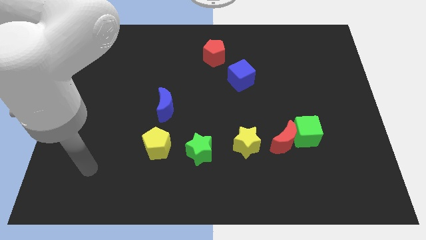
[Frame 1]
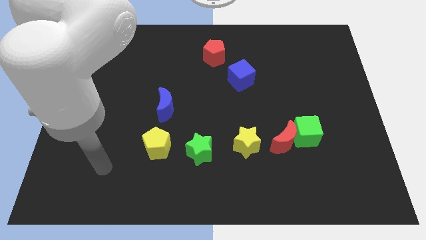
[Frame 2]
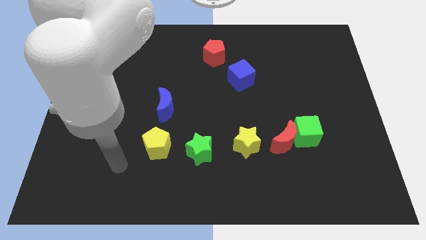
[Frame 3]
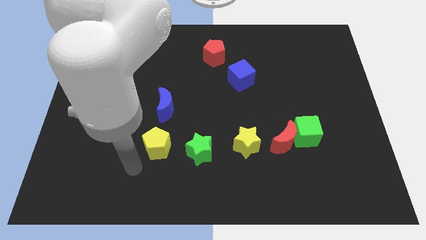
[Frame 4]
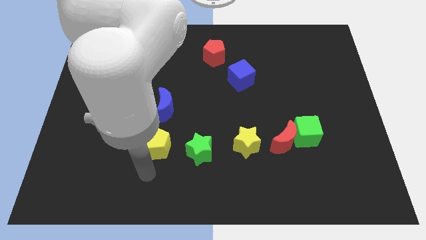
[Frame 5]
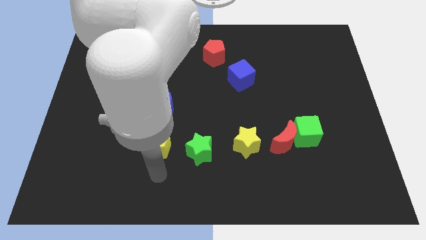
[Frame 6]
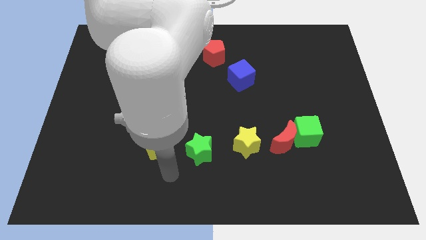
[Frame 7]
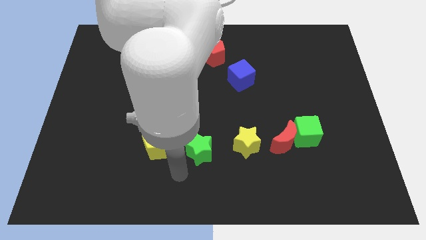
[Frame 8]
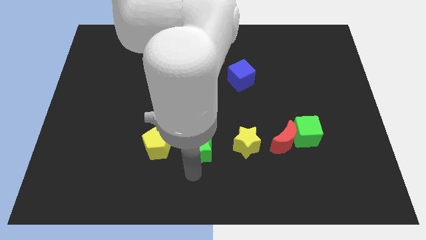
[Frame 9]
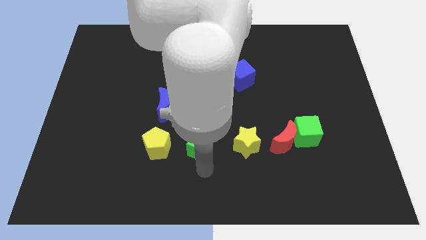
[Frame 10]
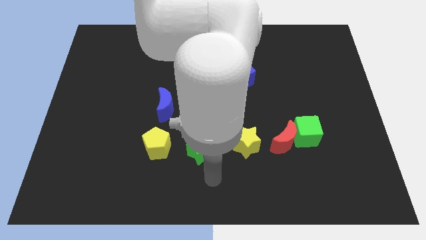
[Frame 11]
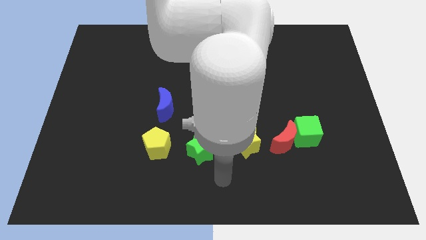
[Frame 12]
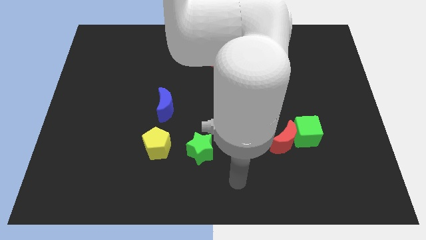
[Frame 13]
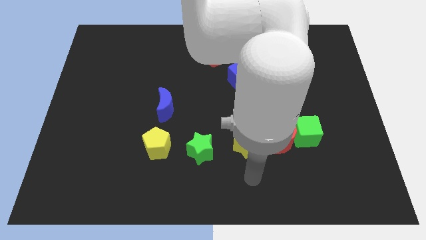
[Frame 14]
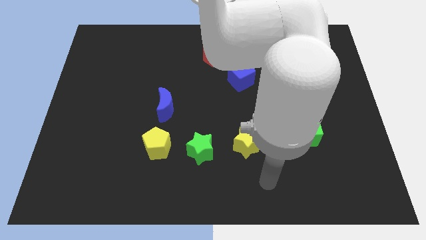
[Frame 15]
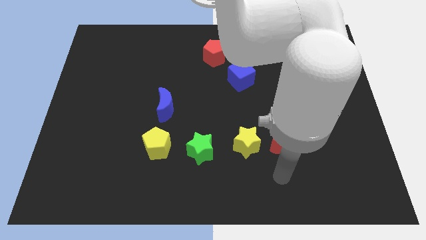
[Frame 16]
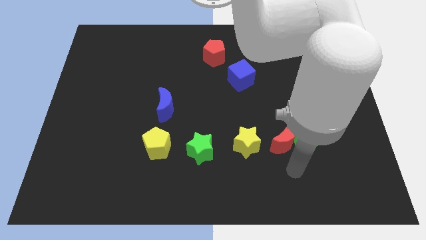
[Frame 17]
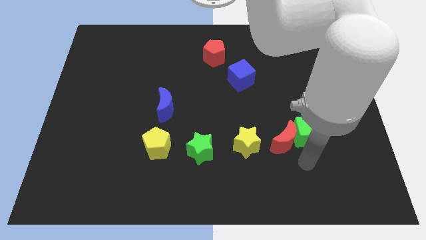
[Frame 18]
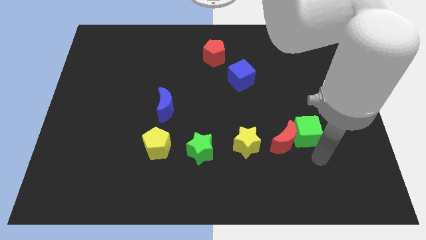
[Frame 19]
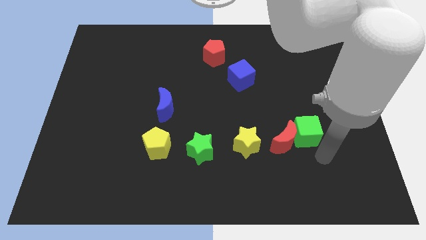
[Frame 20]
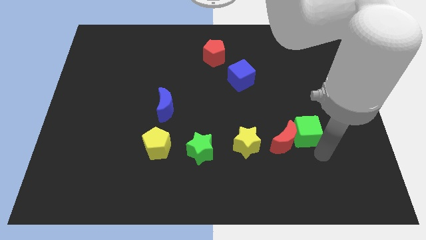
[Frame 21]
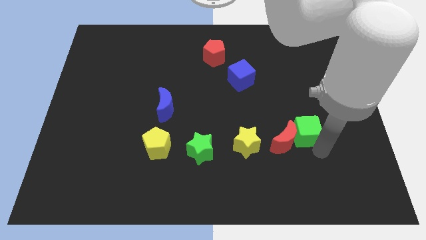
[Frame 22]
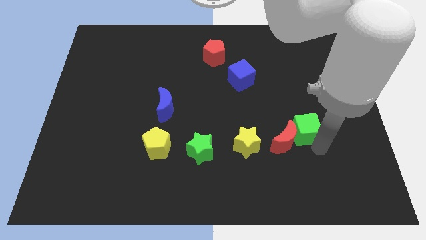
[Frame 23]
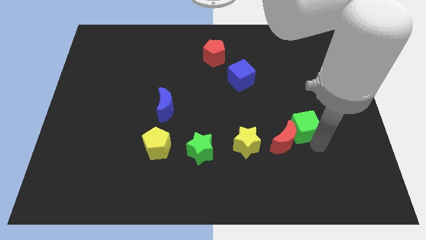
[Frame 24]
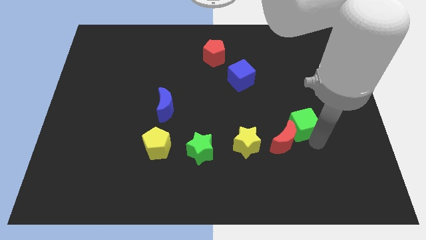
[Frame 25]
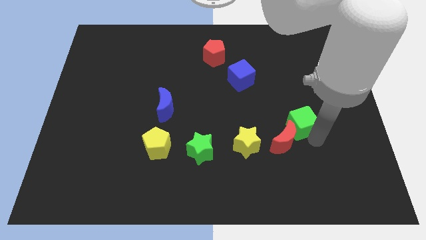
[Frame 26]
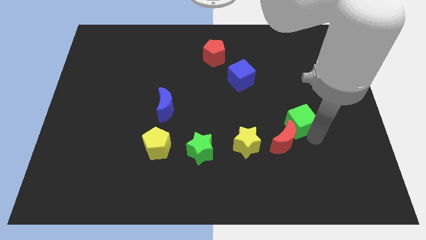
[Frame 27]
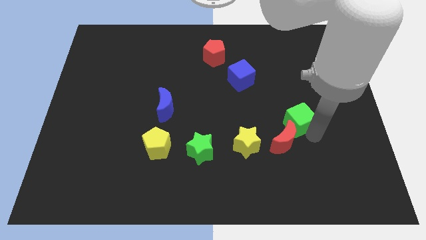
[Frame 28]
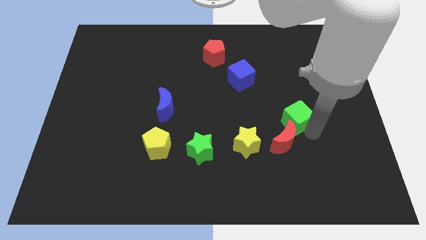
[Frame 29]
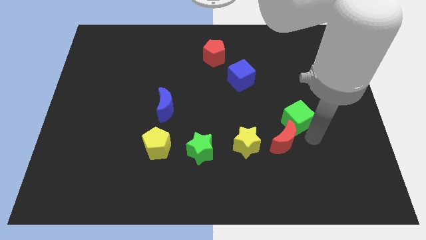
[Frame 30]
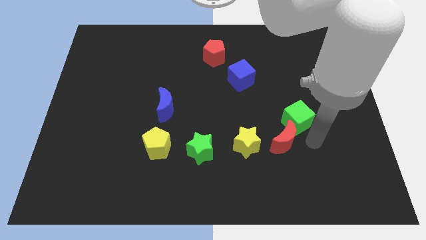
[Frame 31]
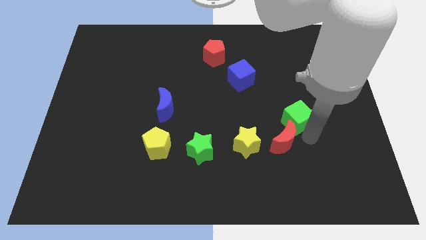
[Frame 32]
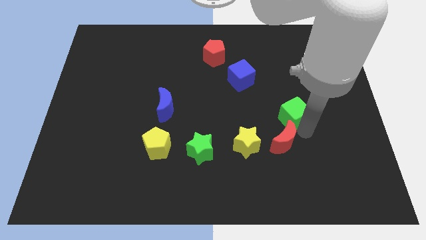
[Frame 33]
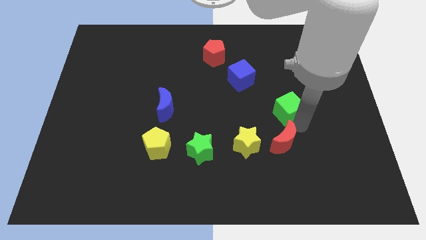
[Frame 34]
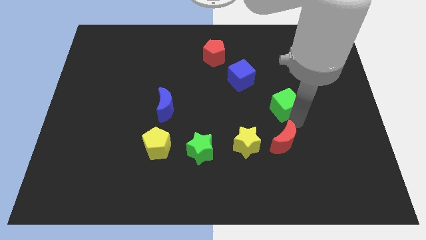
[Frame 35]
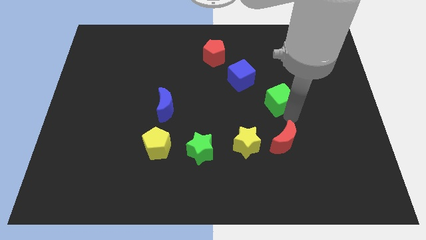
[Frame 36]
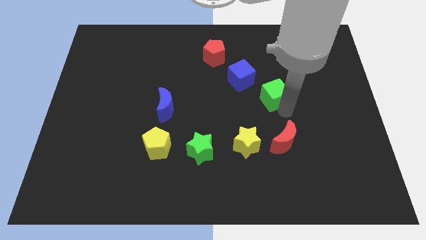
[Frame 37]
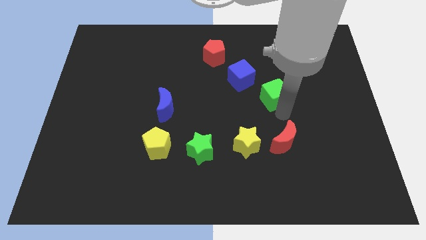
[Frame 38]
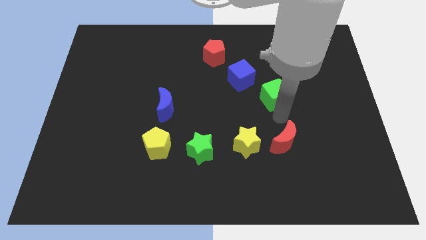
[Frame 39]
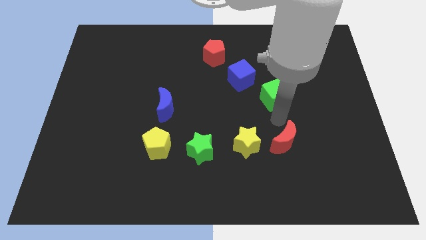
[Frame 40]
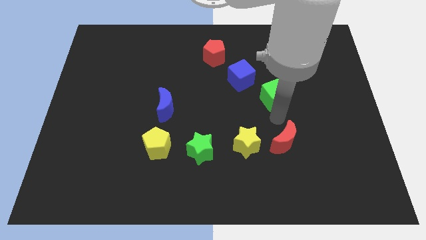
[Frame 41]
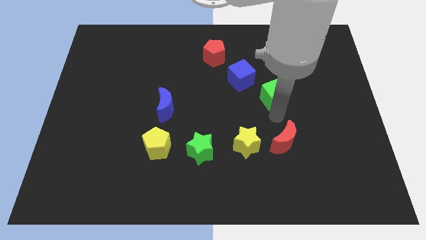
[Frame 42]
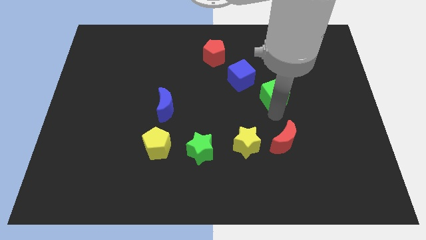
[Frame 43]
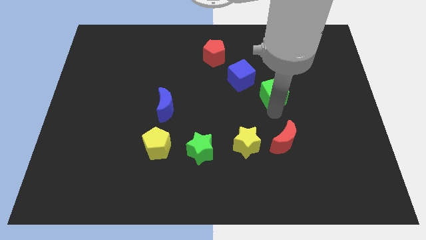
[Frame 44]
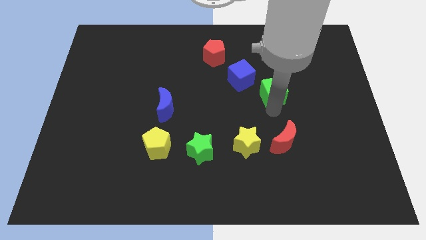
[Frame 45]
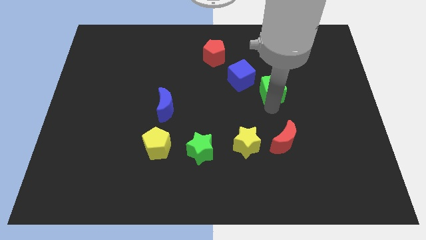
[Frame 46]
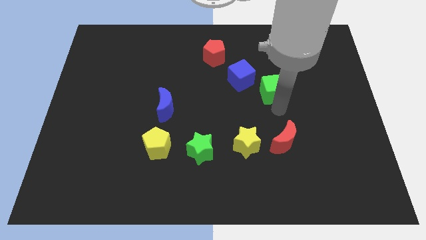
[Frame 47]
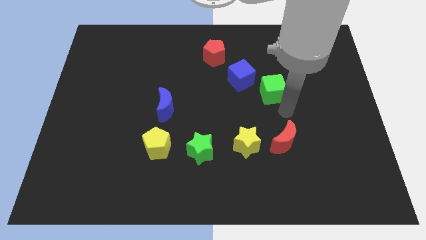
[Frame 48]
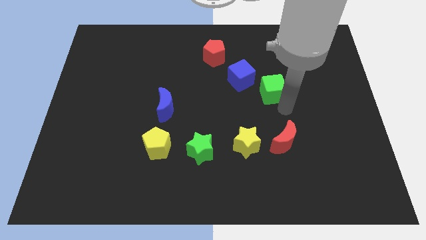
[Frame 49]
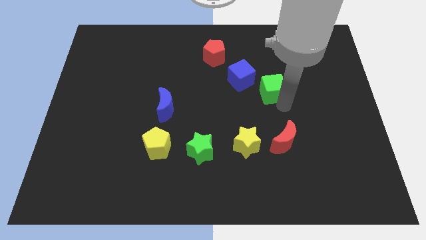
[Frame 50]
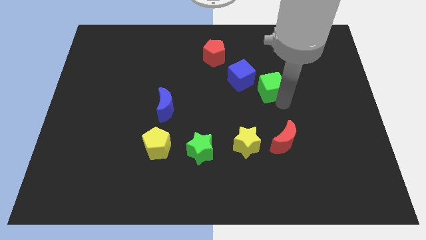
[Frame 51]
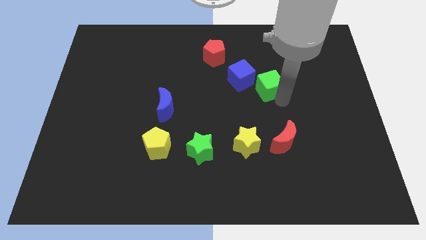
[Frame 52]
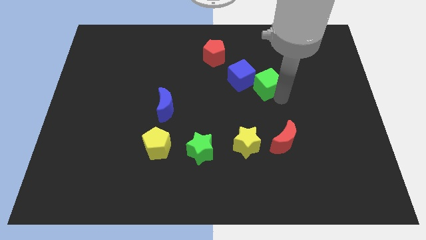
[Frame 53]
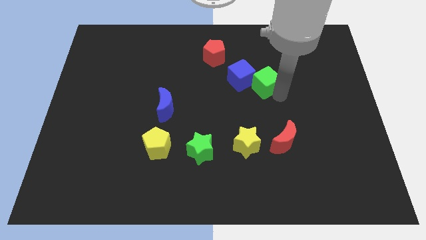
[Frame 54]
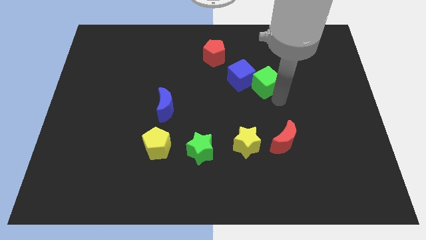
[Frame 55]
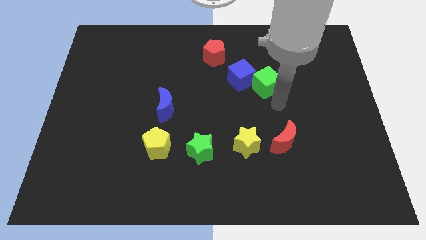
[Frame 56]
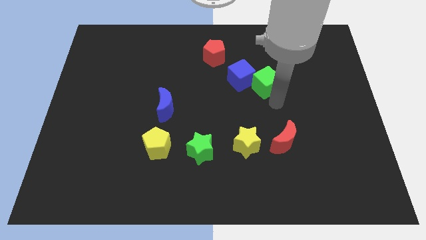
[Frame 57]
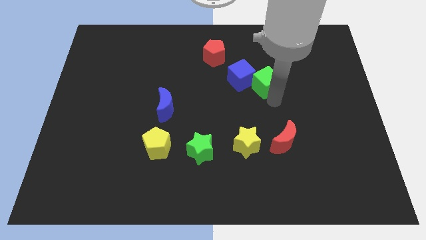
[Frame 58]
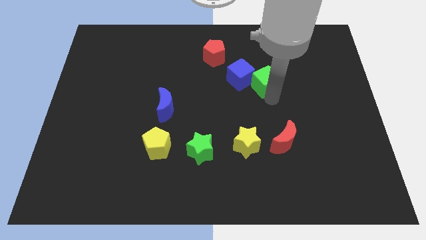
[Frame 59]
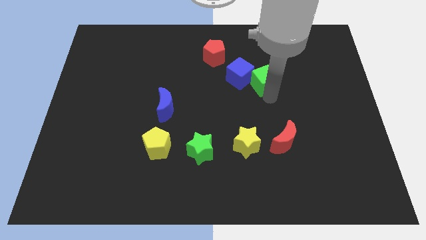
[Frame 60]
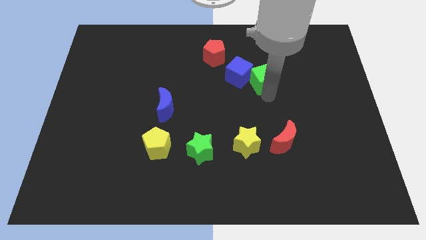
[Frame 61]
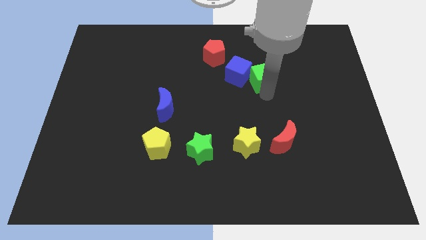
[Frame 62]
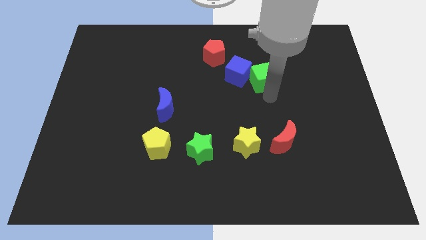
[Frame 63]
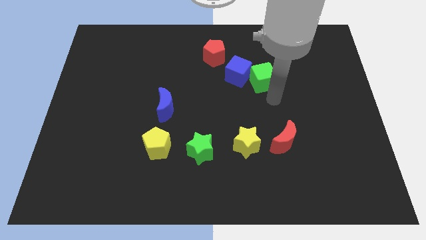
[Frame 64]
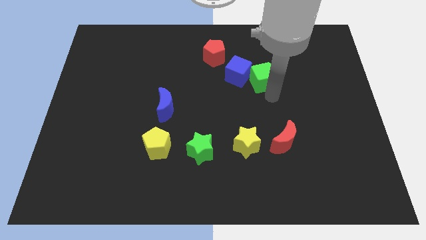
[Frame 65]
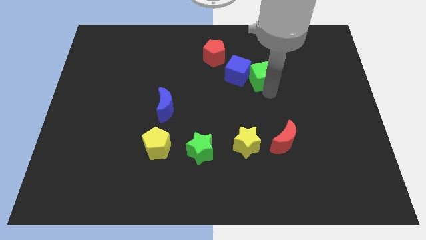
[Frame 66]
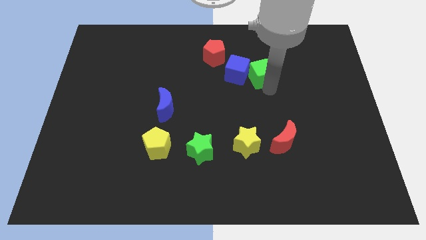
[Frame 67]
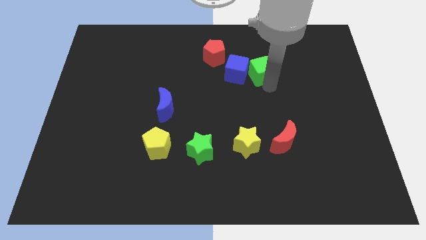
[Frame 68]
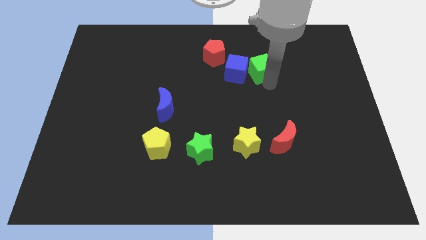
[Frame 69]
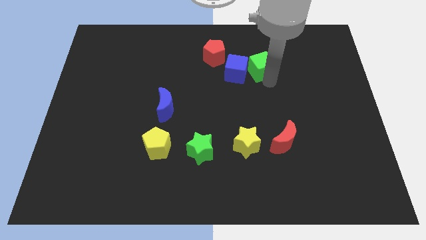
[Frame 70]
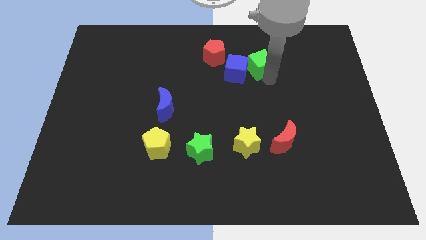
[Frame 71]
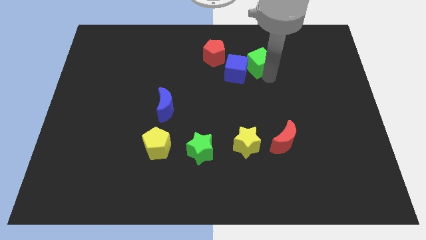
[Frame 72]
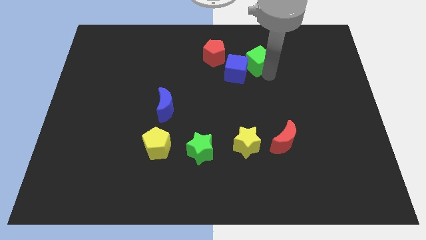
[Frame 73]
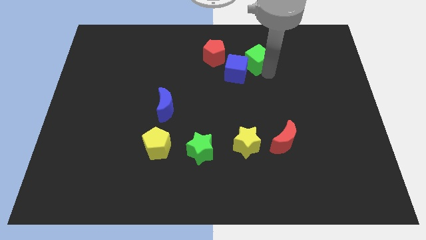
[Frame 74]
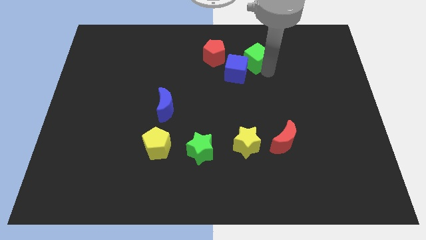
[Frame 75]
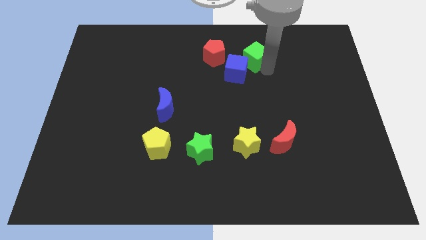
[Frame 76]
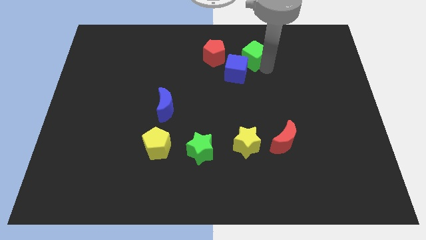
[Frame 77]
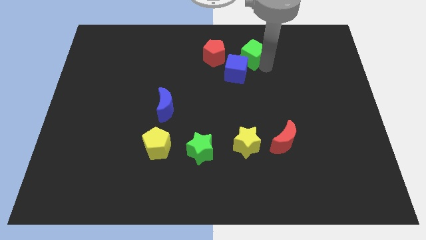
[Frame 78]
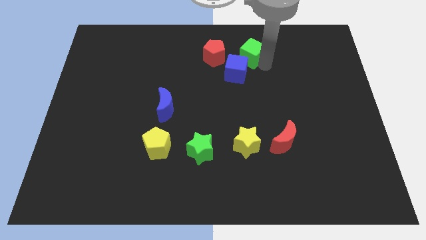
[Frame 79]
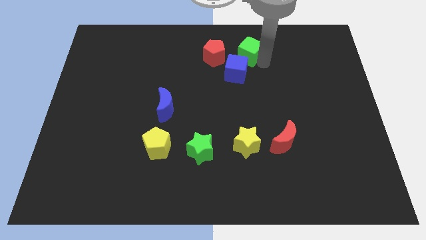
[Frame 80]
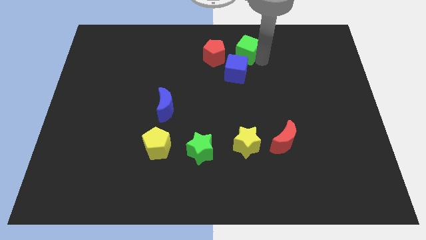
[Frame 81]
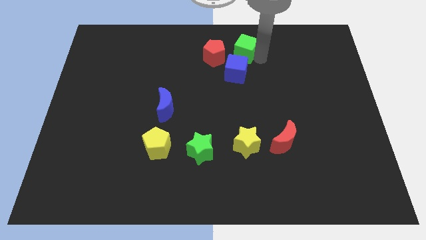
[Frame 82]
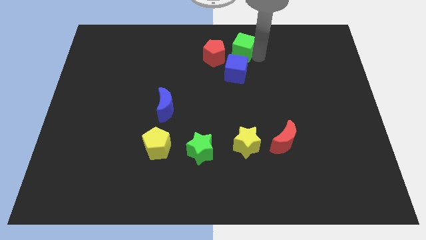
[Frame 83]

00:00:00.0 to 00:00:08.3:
put the green cube to the top side
